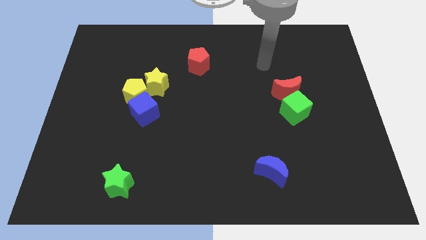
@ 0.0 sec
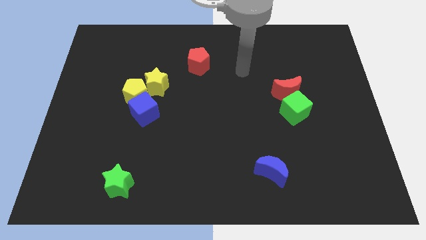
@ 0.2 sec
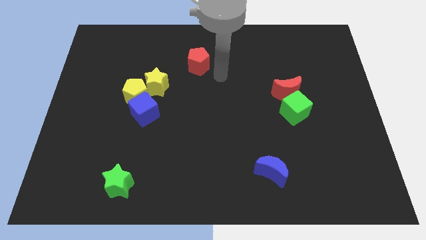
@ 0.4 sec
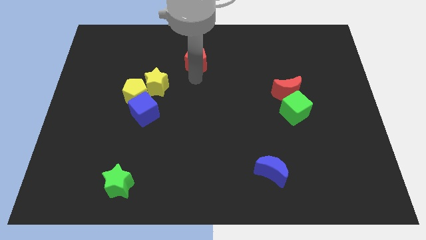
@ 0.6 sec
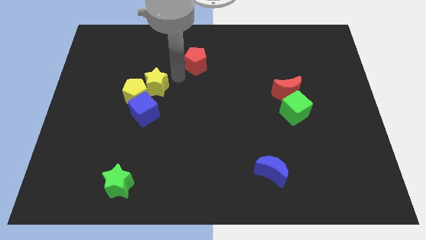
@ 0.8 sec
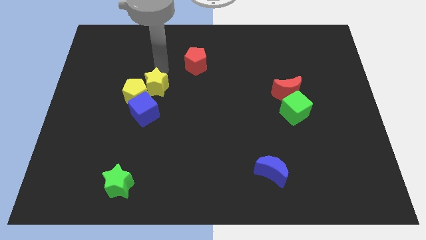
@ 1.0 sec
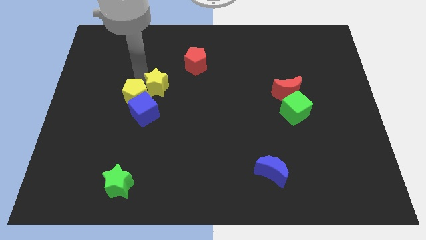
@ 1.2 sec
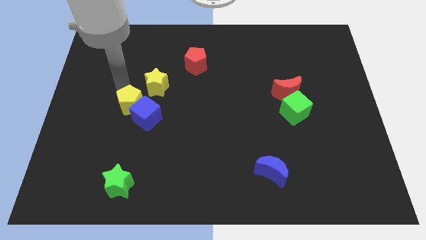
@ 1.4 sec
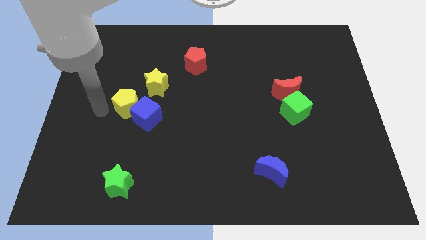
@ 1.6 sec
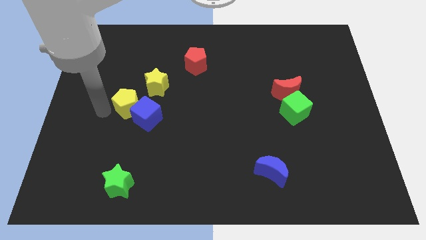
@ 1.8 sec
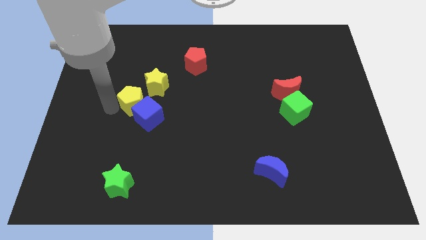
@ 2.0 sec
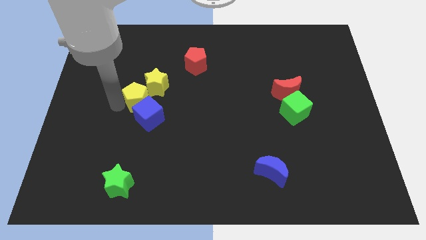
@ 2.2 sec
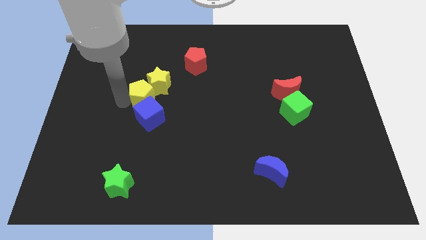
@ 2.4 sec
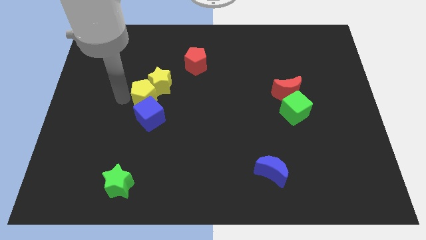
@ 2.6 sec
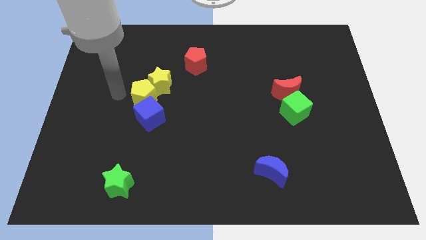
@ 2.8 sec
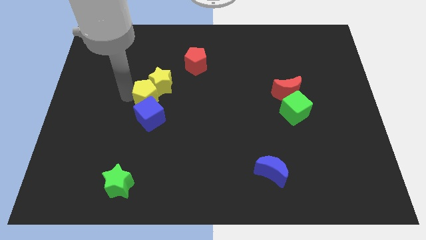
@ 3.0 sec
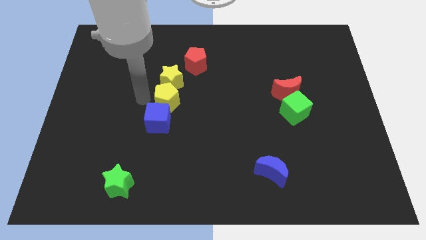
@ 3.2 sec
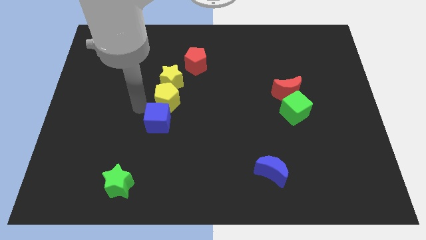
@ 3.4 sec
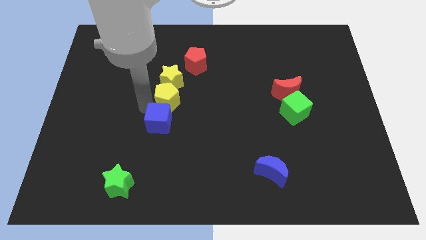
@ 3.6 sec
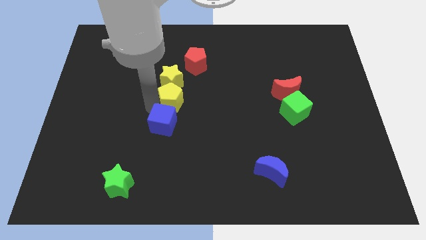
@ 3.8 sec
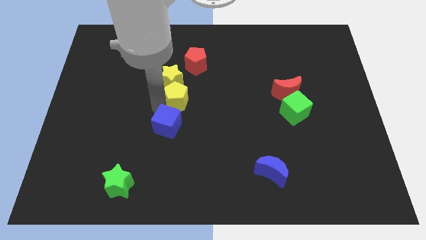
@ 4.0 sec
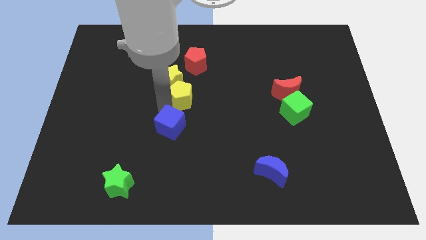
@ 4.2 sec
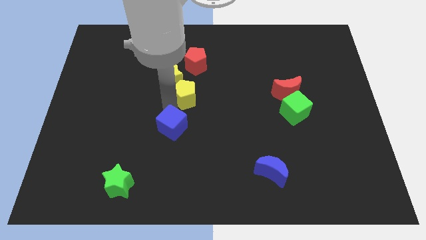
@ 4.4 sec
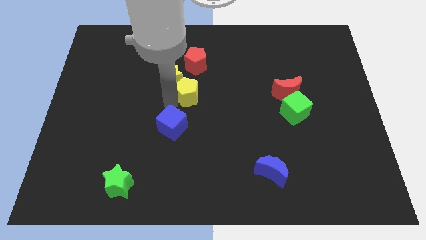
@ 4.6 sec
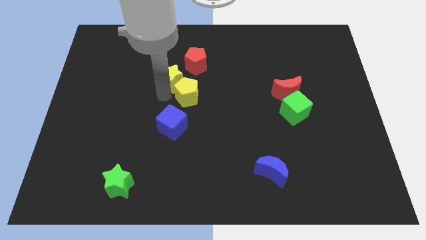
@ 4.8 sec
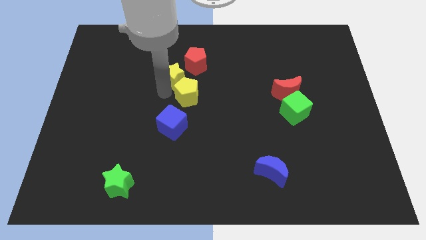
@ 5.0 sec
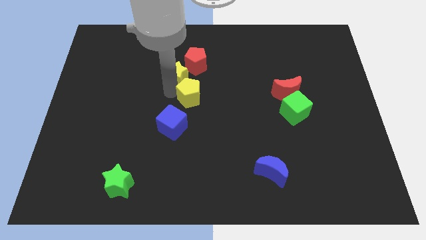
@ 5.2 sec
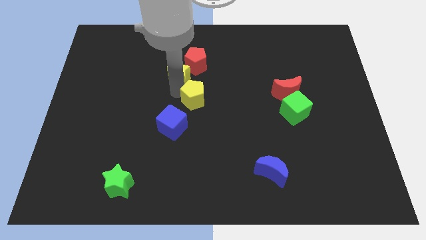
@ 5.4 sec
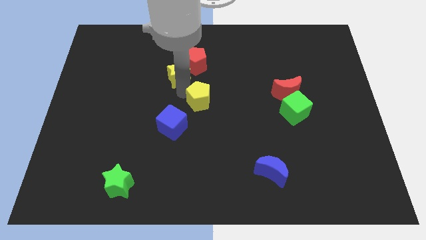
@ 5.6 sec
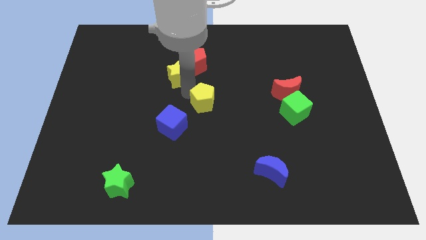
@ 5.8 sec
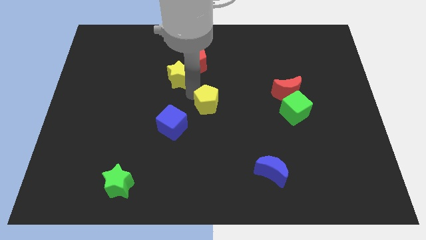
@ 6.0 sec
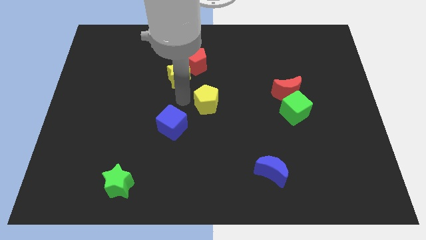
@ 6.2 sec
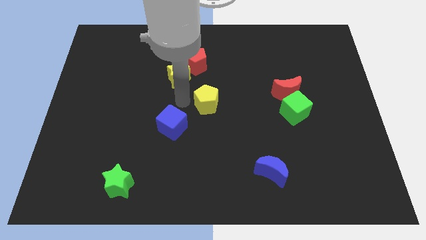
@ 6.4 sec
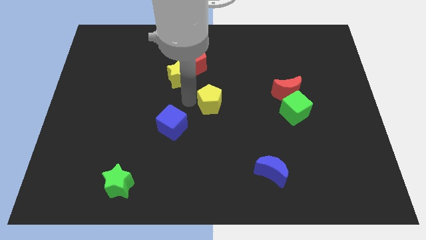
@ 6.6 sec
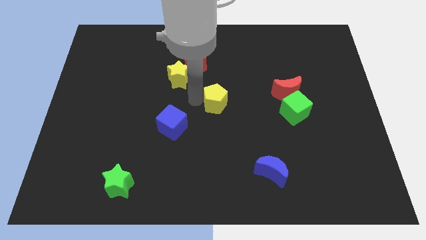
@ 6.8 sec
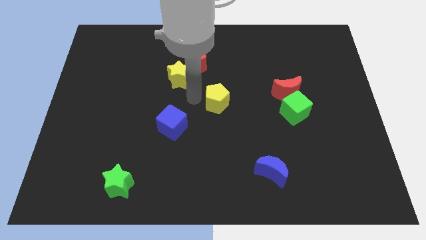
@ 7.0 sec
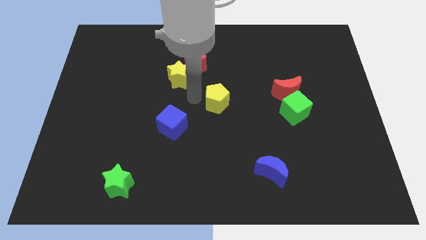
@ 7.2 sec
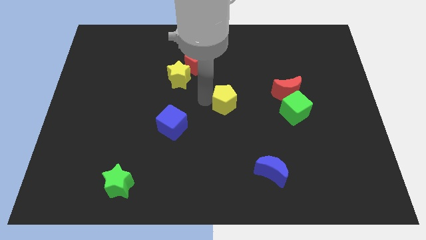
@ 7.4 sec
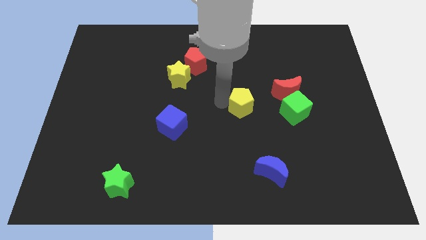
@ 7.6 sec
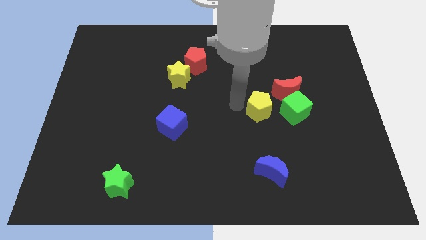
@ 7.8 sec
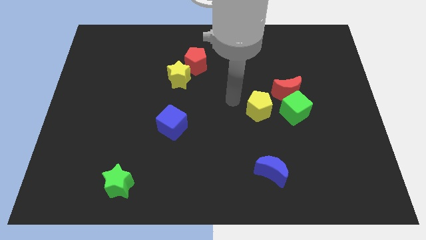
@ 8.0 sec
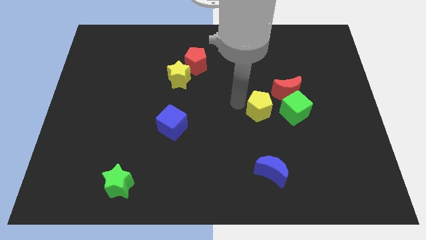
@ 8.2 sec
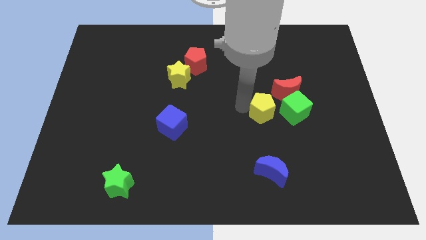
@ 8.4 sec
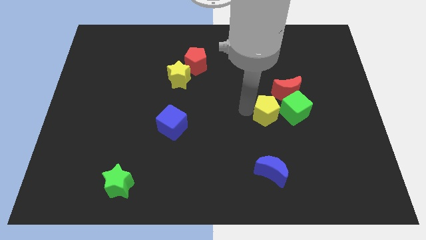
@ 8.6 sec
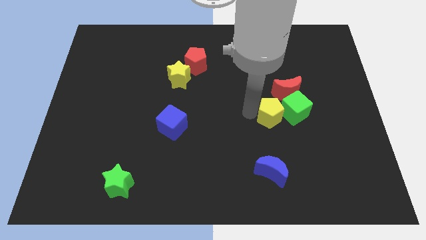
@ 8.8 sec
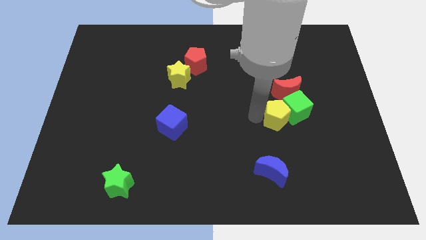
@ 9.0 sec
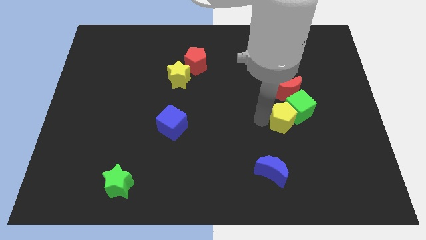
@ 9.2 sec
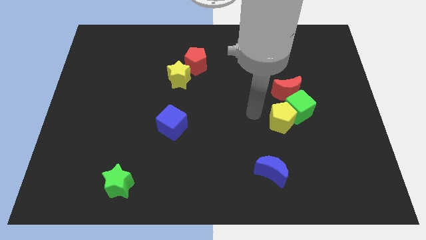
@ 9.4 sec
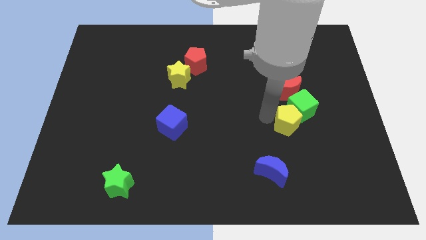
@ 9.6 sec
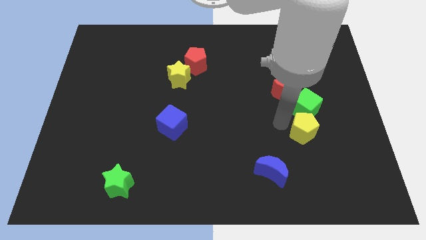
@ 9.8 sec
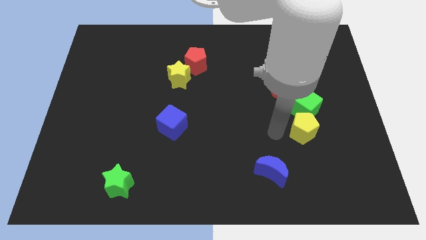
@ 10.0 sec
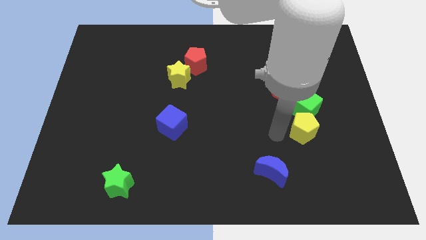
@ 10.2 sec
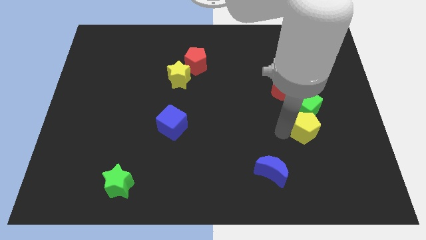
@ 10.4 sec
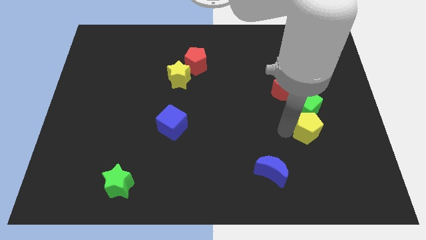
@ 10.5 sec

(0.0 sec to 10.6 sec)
put the yellow pentagon diagonally down and to the right of the green cube

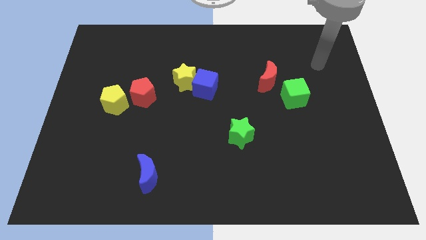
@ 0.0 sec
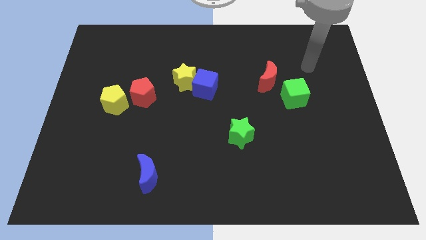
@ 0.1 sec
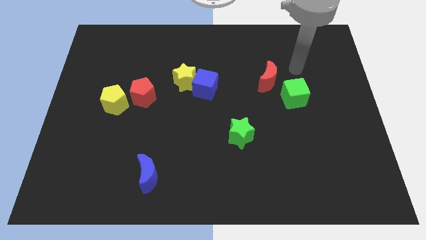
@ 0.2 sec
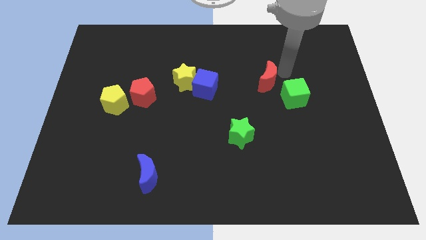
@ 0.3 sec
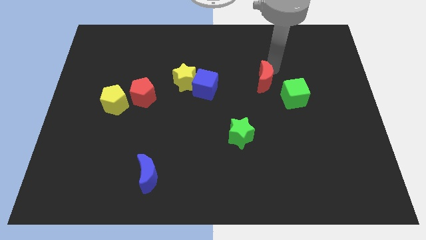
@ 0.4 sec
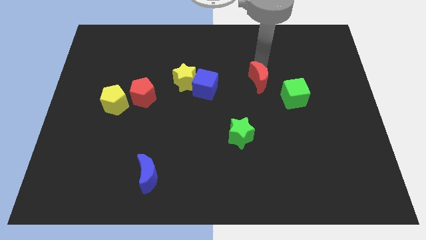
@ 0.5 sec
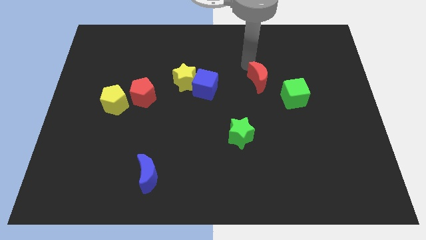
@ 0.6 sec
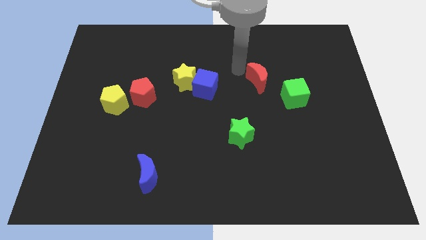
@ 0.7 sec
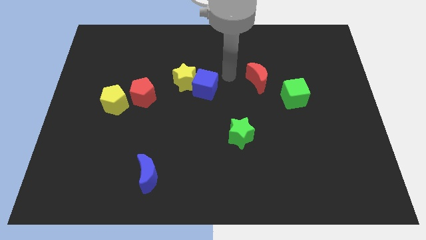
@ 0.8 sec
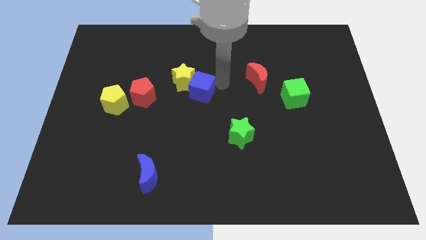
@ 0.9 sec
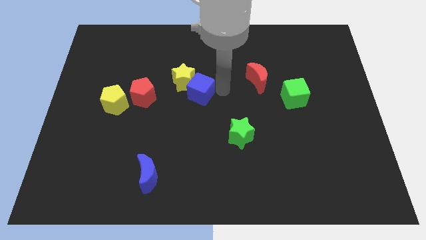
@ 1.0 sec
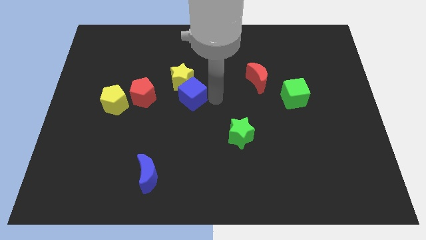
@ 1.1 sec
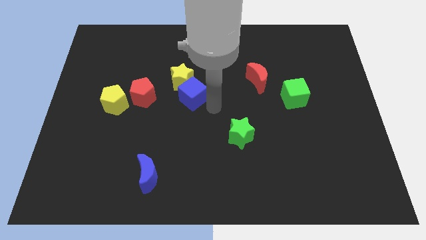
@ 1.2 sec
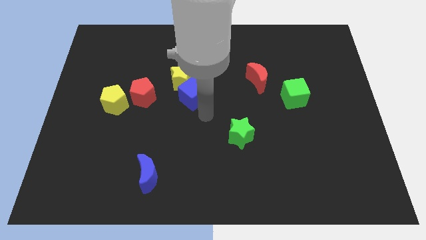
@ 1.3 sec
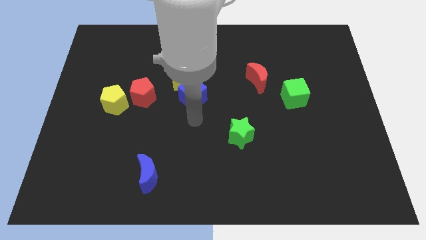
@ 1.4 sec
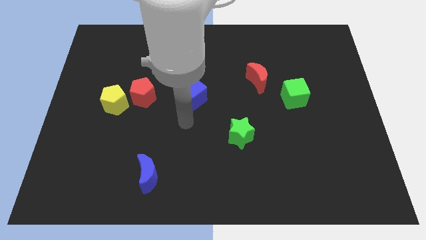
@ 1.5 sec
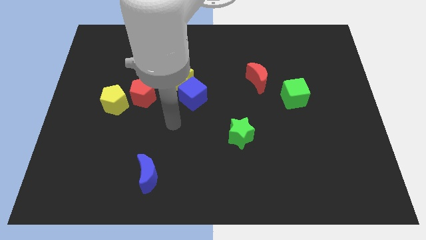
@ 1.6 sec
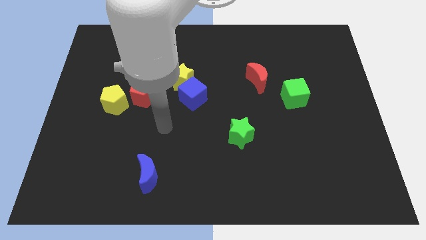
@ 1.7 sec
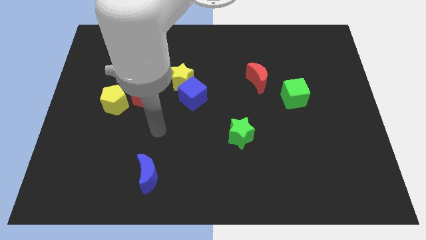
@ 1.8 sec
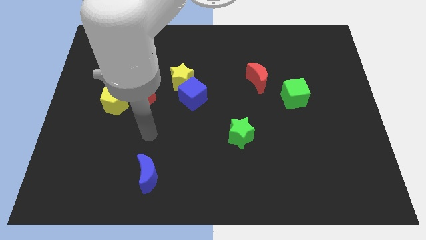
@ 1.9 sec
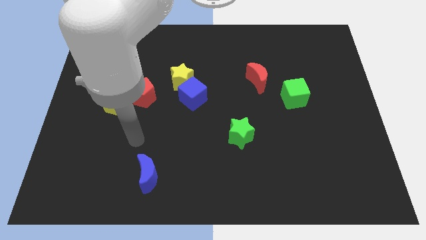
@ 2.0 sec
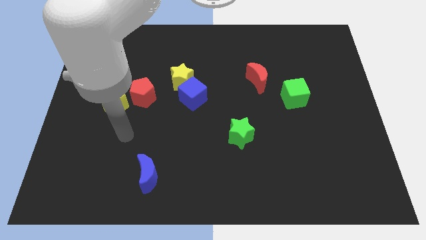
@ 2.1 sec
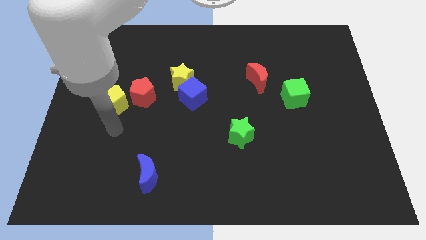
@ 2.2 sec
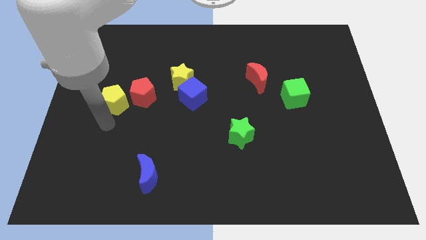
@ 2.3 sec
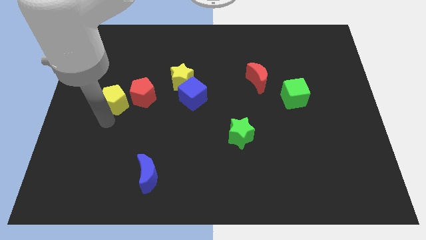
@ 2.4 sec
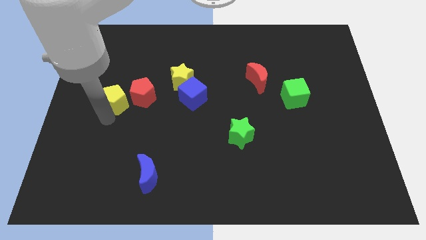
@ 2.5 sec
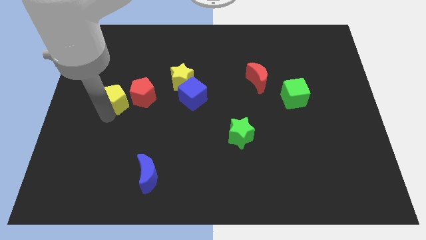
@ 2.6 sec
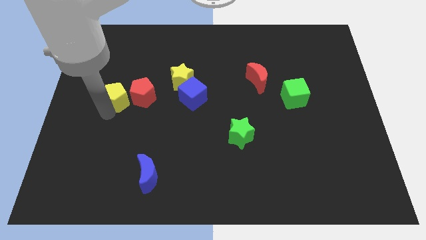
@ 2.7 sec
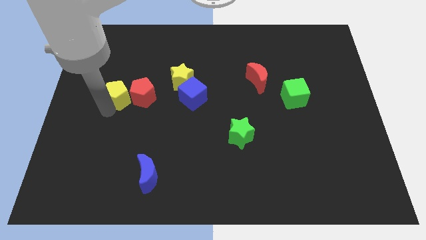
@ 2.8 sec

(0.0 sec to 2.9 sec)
push the yellow pentagon to the top left side of the red pentagon
